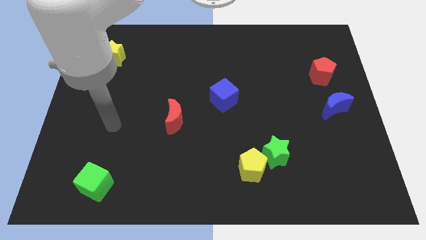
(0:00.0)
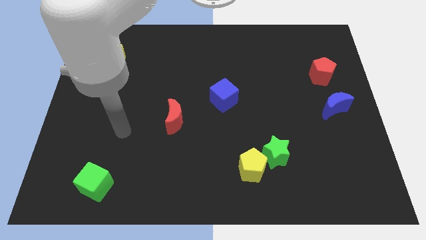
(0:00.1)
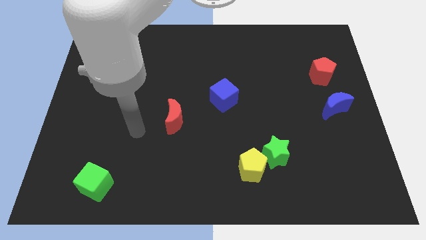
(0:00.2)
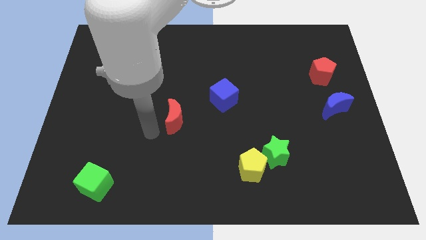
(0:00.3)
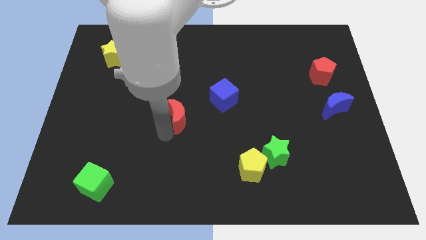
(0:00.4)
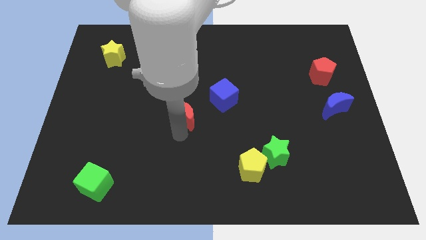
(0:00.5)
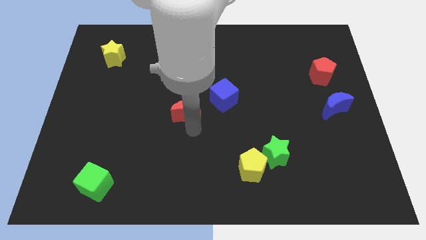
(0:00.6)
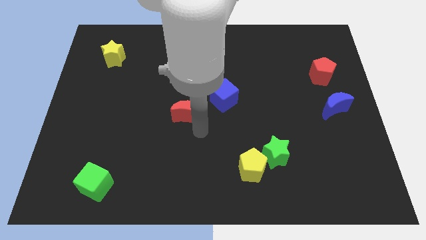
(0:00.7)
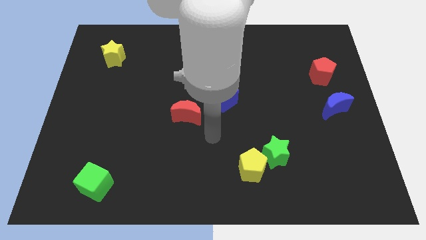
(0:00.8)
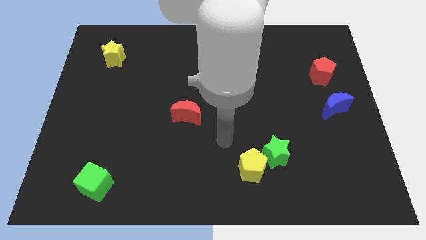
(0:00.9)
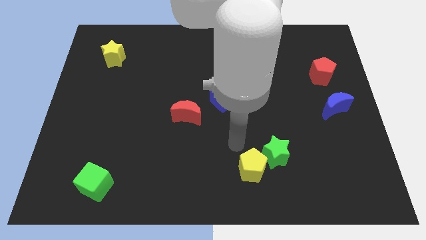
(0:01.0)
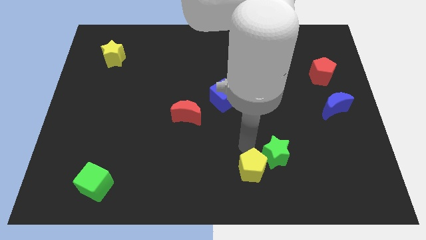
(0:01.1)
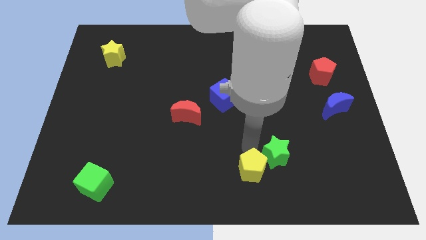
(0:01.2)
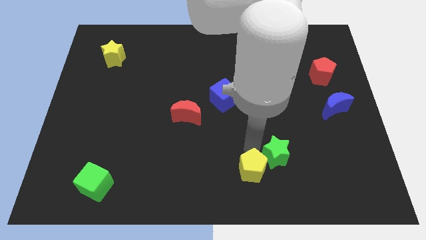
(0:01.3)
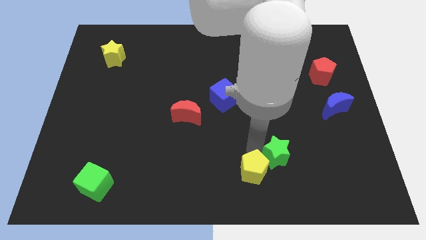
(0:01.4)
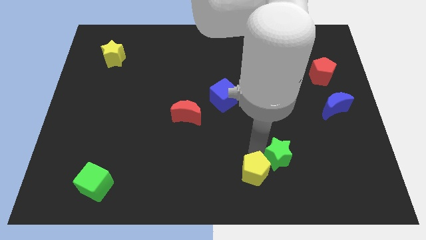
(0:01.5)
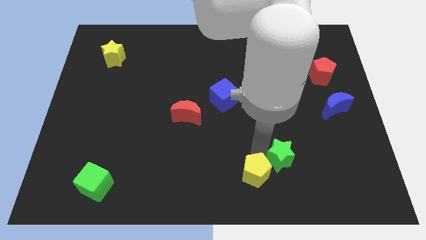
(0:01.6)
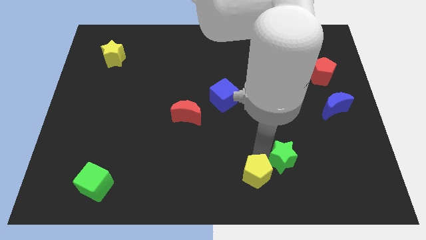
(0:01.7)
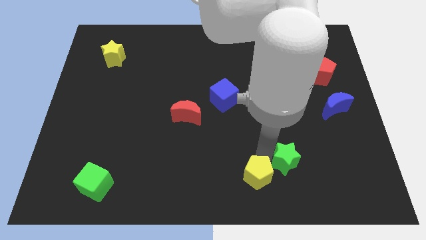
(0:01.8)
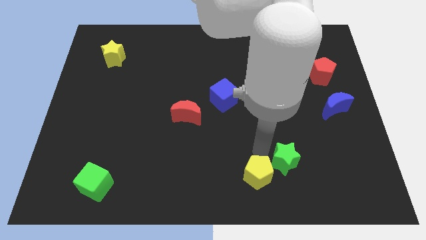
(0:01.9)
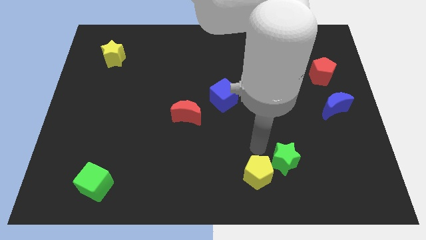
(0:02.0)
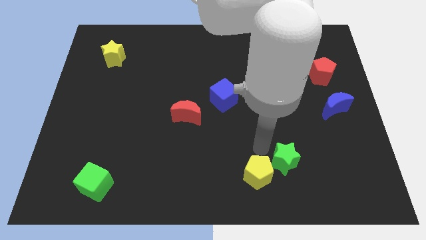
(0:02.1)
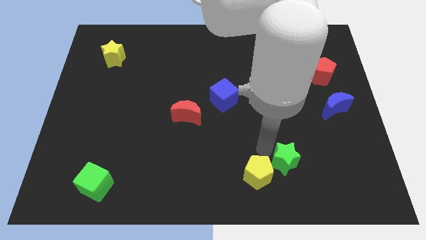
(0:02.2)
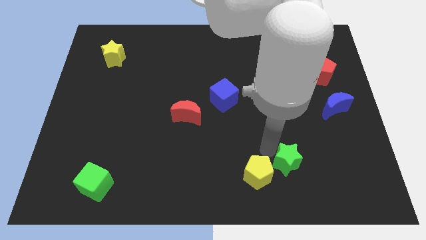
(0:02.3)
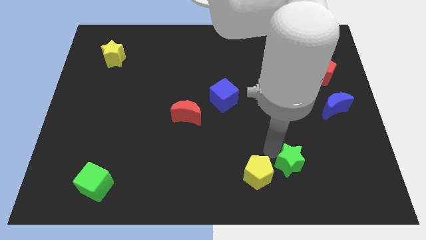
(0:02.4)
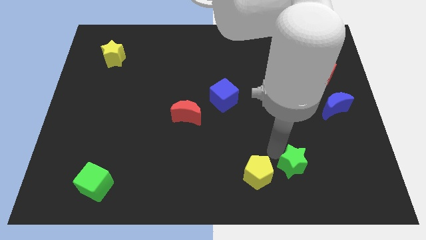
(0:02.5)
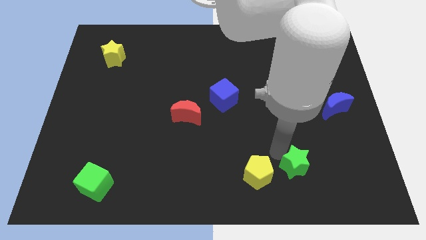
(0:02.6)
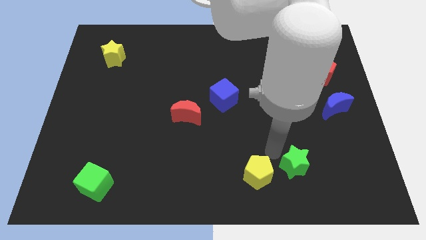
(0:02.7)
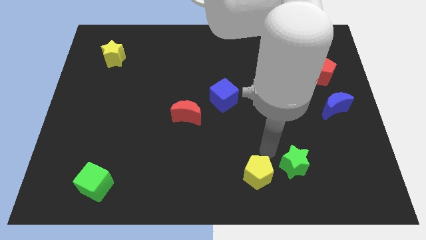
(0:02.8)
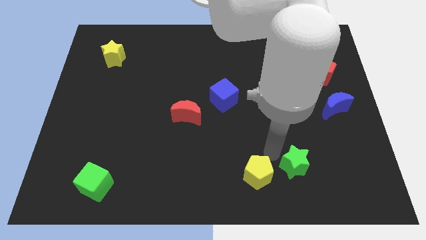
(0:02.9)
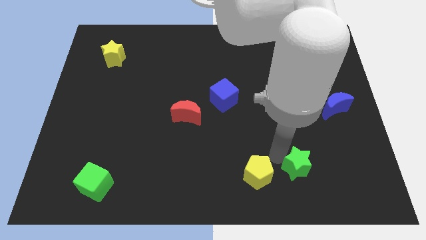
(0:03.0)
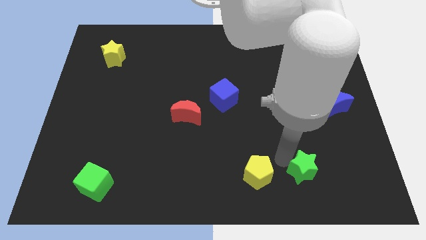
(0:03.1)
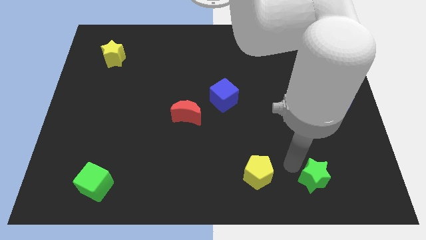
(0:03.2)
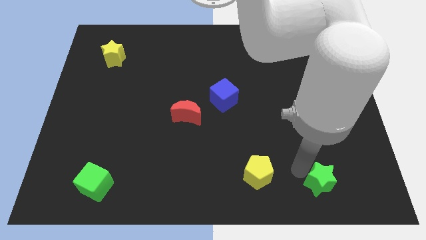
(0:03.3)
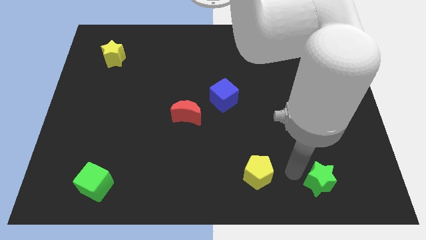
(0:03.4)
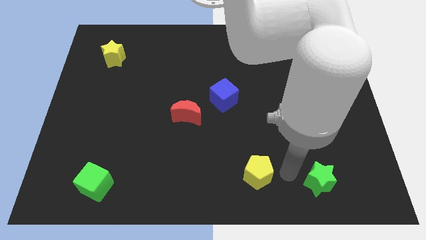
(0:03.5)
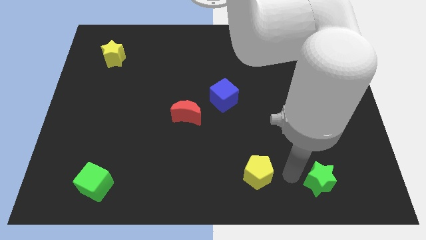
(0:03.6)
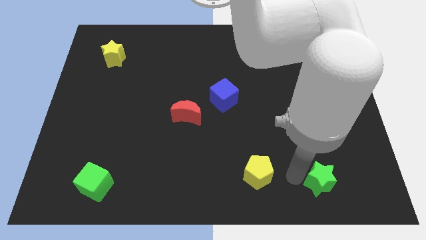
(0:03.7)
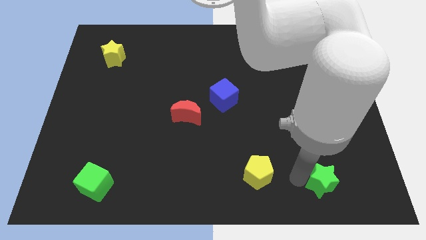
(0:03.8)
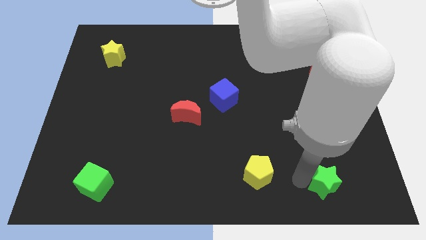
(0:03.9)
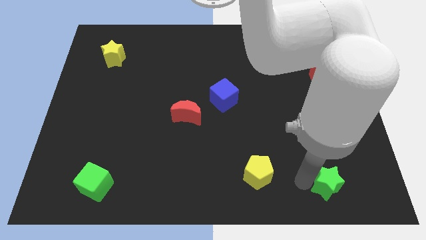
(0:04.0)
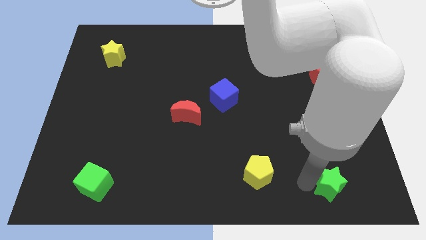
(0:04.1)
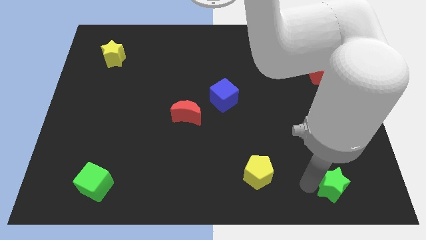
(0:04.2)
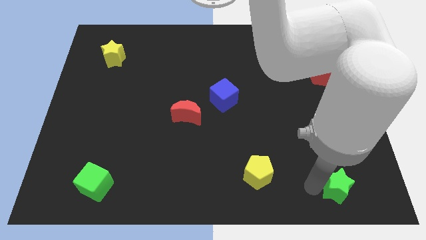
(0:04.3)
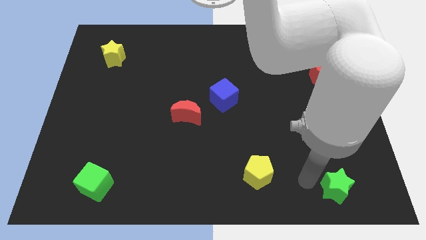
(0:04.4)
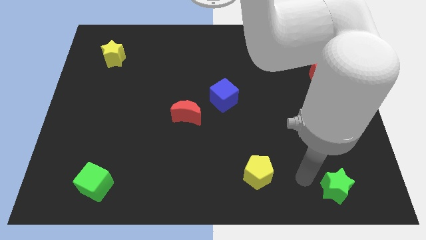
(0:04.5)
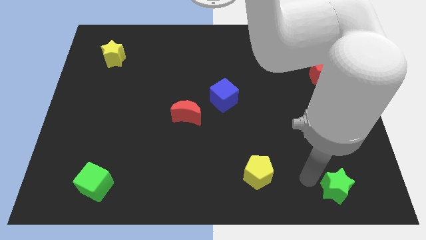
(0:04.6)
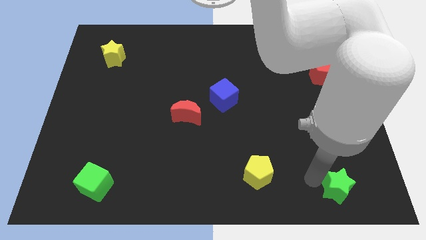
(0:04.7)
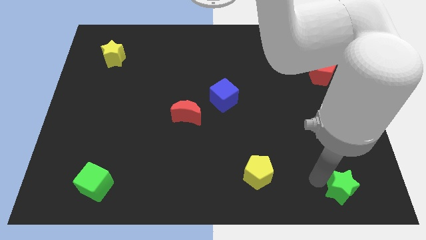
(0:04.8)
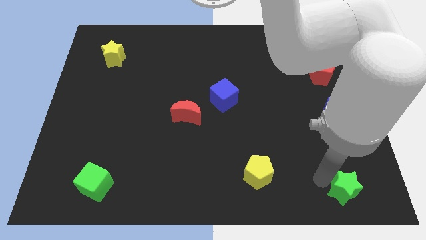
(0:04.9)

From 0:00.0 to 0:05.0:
put the green star to the bottom right

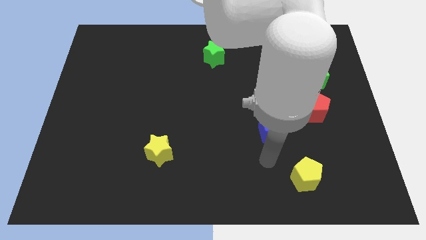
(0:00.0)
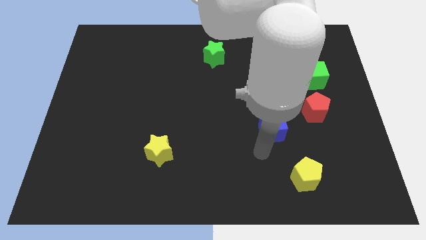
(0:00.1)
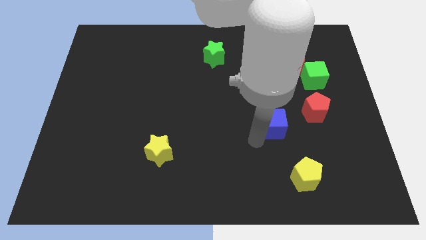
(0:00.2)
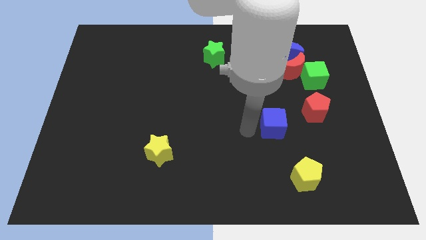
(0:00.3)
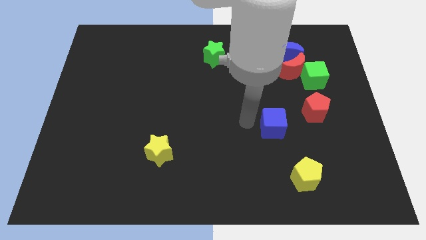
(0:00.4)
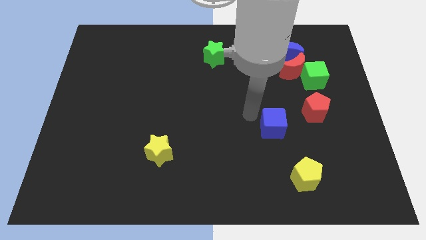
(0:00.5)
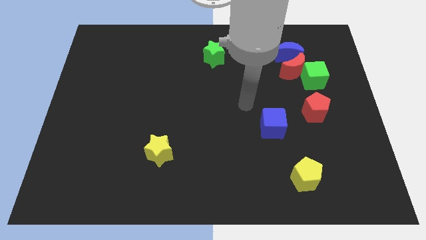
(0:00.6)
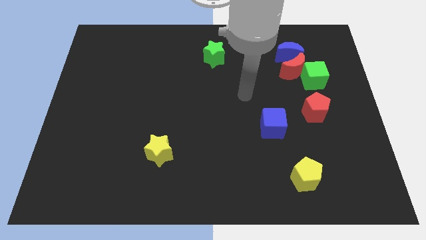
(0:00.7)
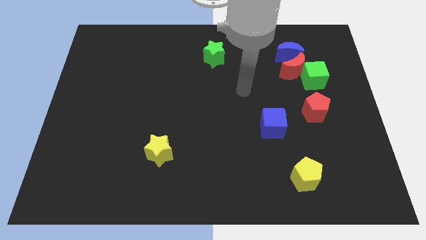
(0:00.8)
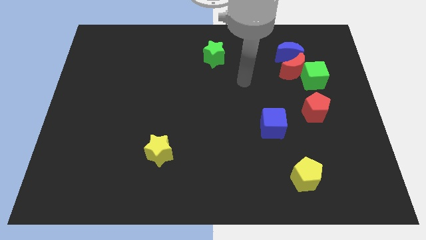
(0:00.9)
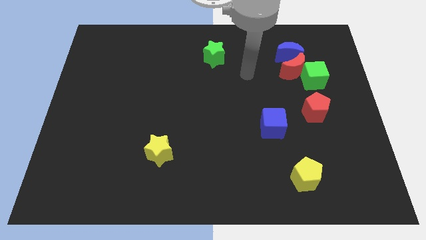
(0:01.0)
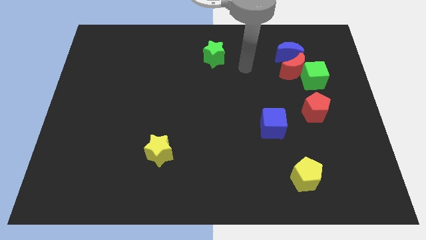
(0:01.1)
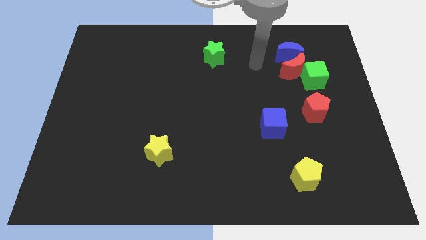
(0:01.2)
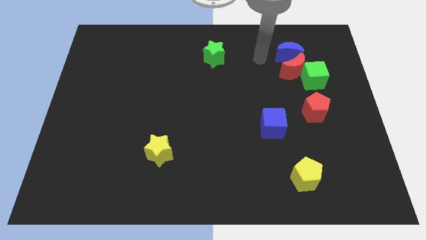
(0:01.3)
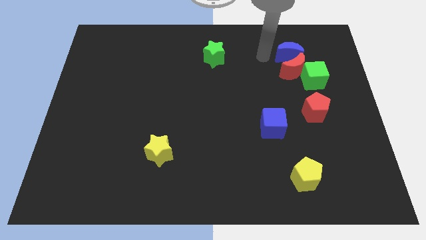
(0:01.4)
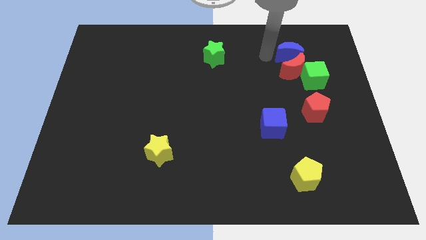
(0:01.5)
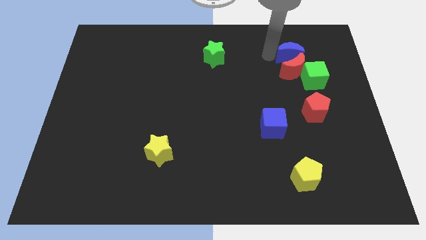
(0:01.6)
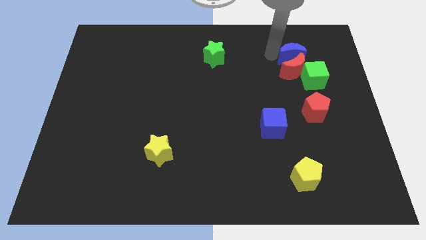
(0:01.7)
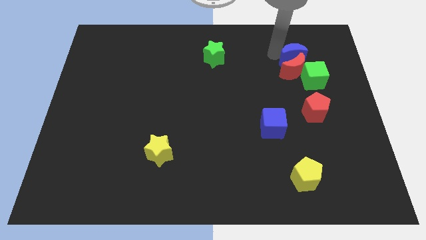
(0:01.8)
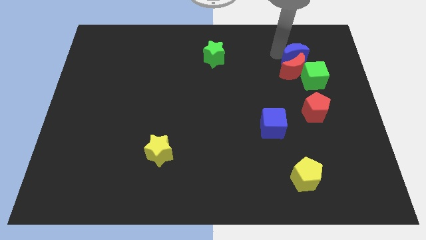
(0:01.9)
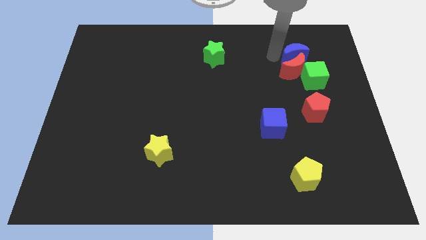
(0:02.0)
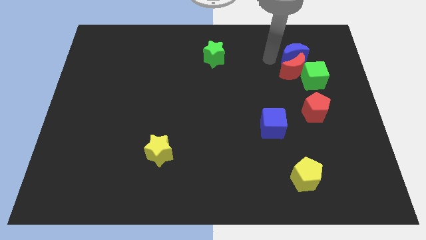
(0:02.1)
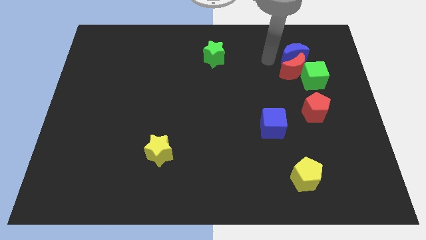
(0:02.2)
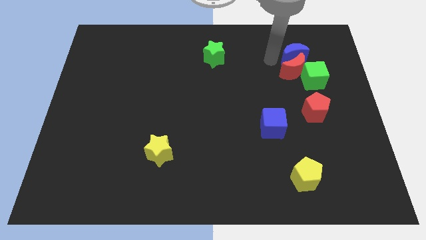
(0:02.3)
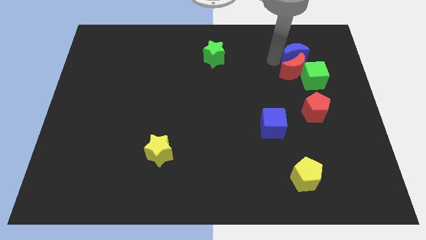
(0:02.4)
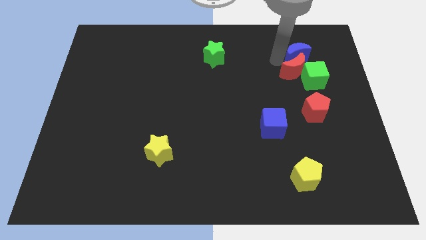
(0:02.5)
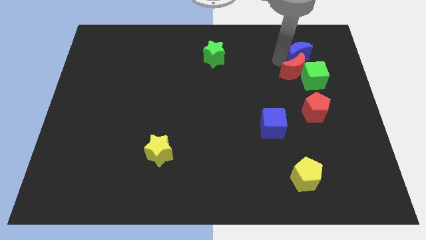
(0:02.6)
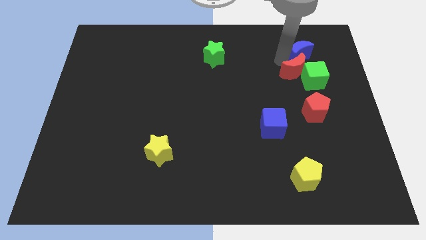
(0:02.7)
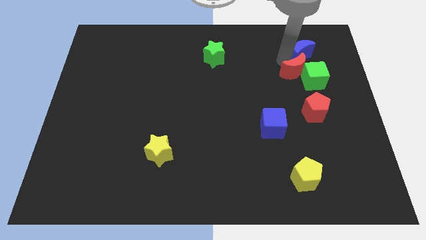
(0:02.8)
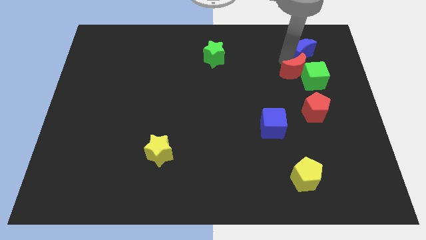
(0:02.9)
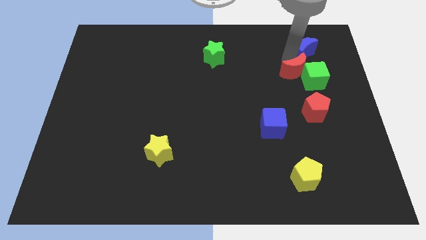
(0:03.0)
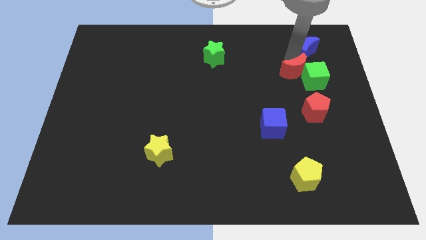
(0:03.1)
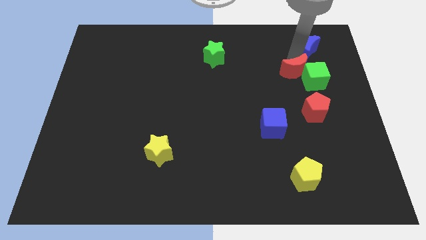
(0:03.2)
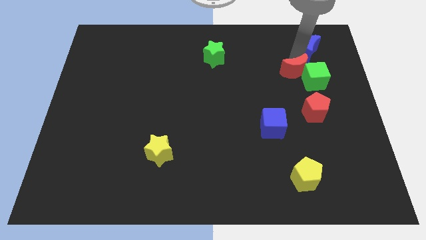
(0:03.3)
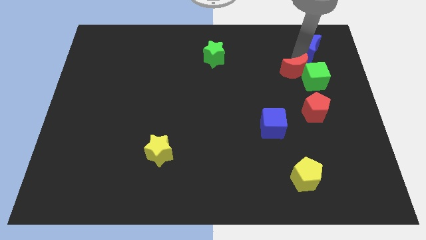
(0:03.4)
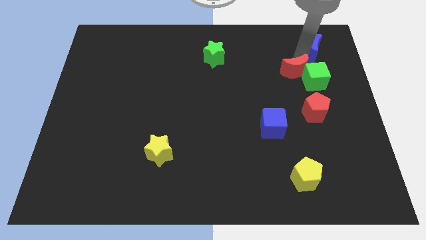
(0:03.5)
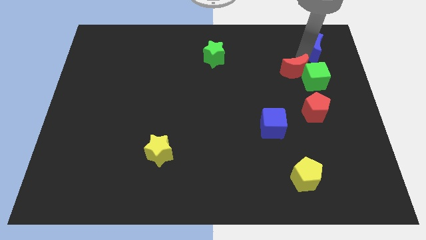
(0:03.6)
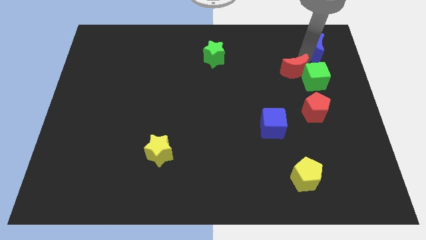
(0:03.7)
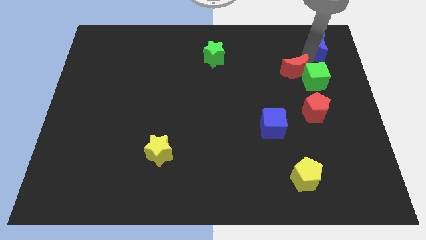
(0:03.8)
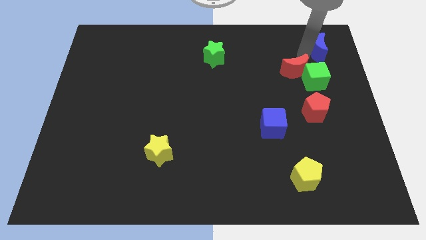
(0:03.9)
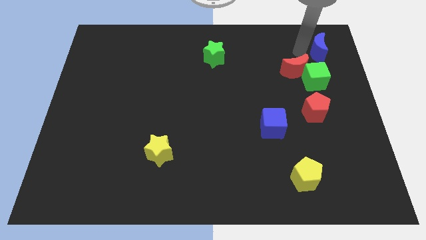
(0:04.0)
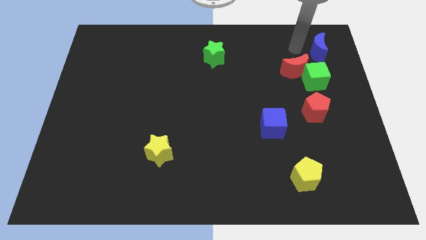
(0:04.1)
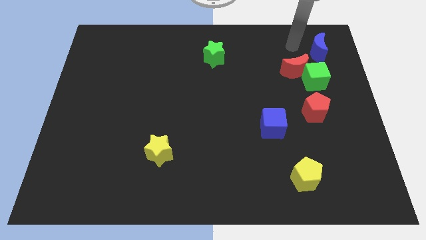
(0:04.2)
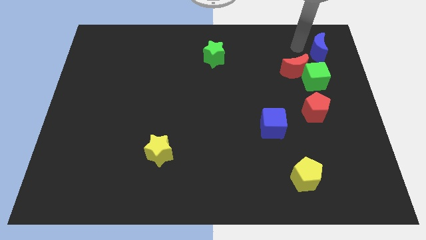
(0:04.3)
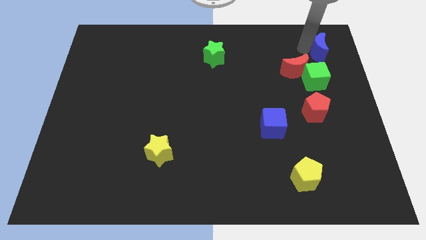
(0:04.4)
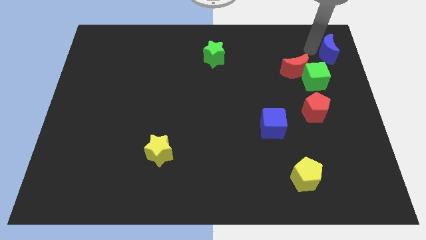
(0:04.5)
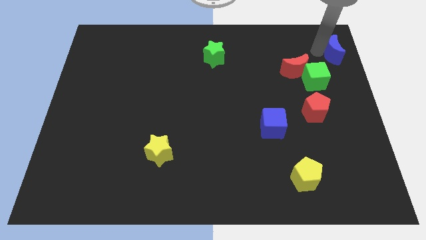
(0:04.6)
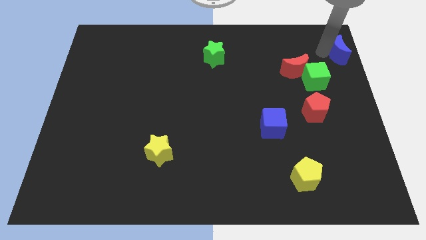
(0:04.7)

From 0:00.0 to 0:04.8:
slide the blue moon to the upper right corner
